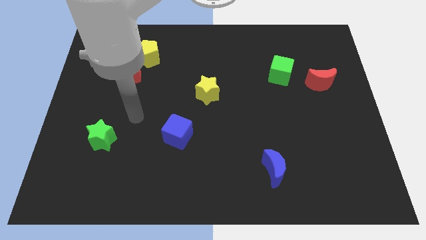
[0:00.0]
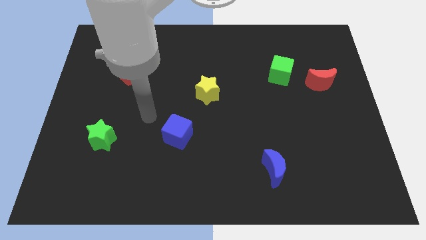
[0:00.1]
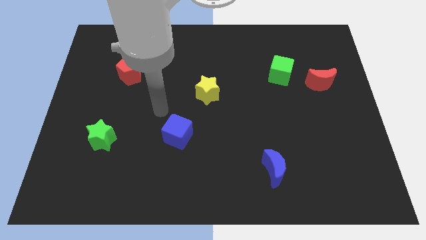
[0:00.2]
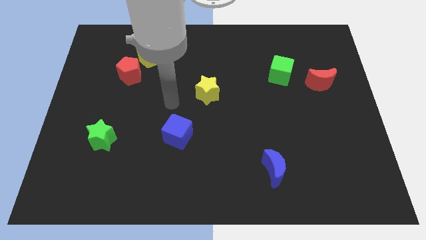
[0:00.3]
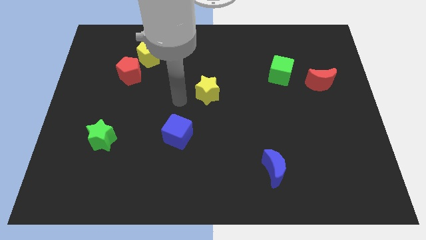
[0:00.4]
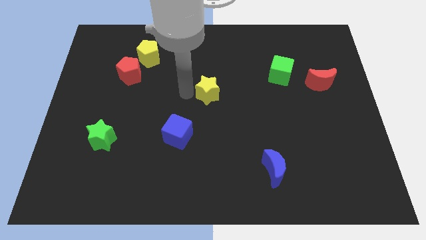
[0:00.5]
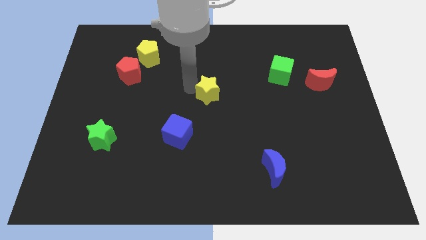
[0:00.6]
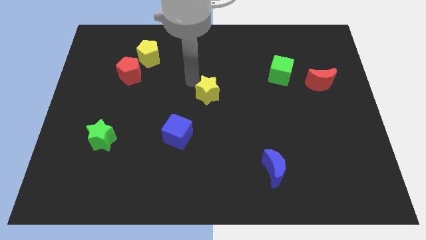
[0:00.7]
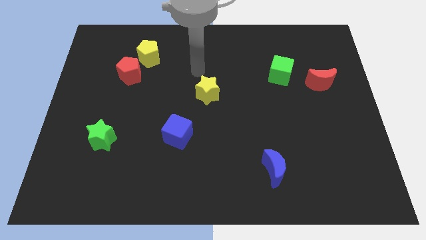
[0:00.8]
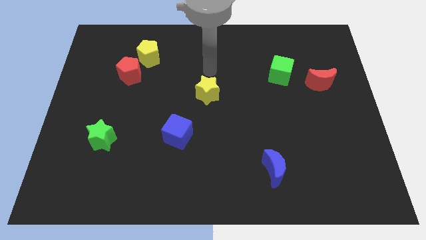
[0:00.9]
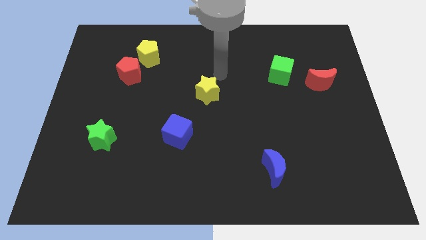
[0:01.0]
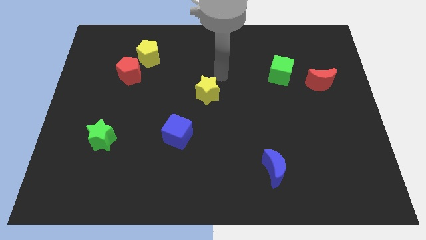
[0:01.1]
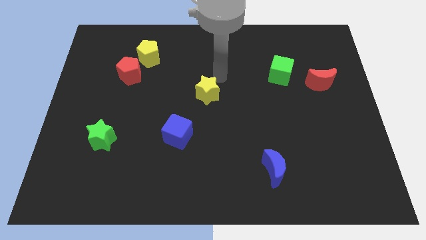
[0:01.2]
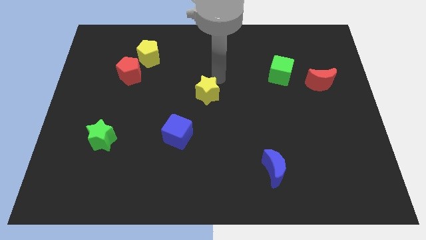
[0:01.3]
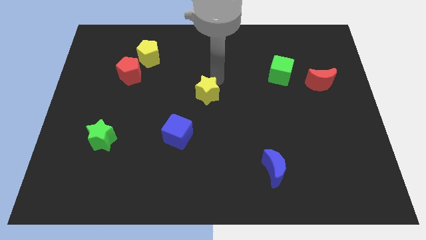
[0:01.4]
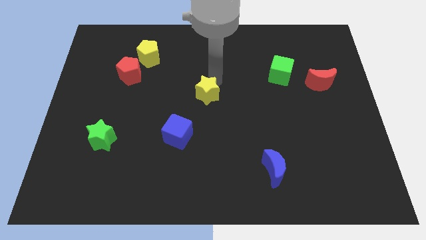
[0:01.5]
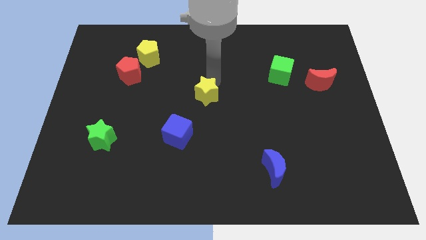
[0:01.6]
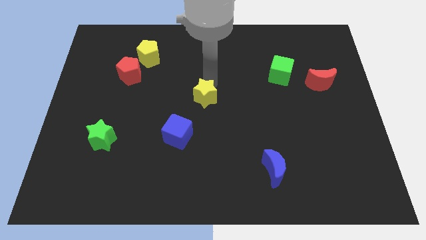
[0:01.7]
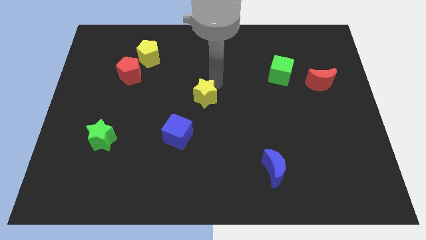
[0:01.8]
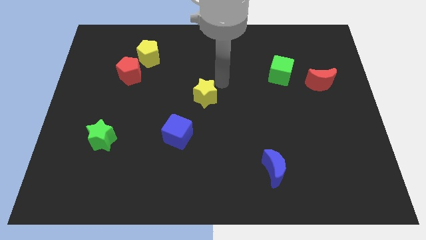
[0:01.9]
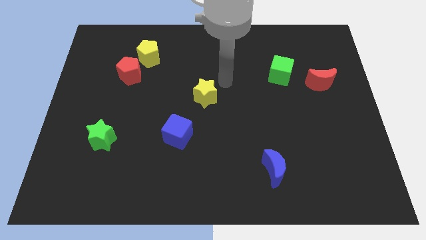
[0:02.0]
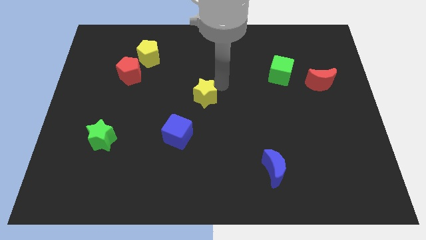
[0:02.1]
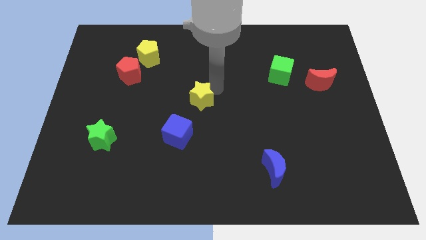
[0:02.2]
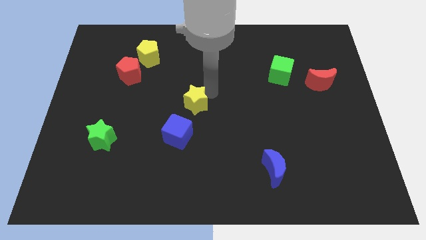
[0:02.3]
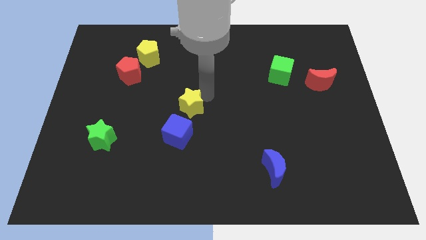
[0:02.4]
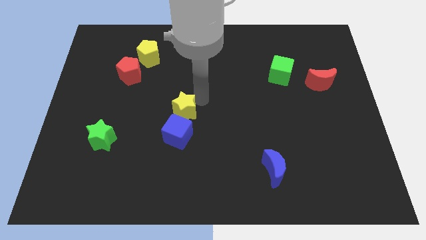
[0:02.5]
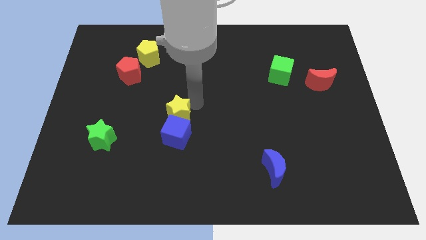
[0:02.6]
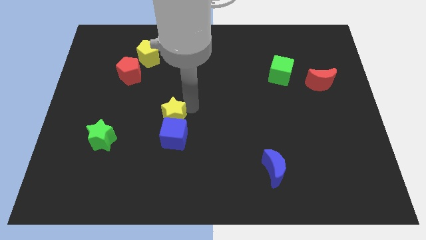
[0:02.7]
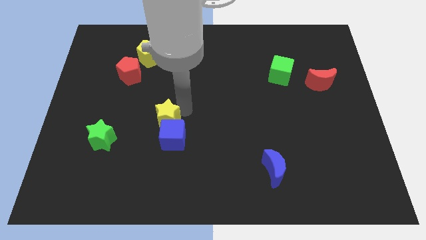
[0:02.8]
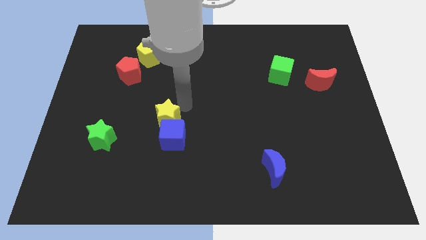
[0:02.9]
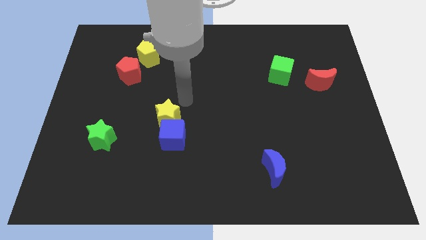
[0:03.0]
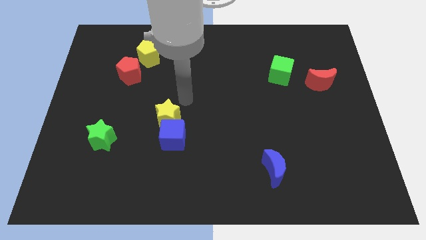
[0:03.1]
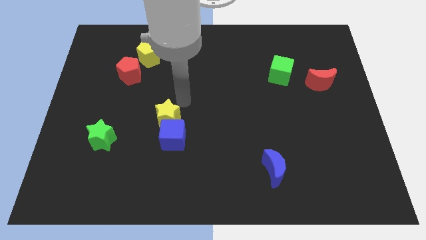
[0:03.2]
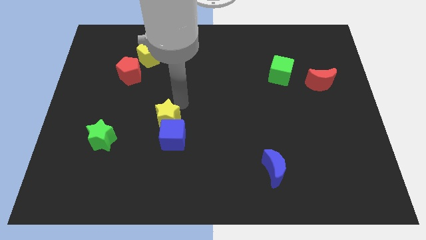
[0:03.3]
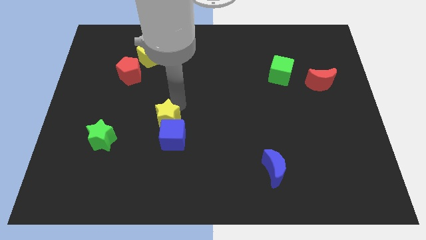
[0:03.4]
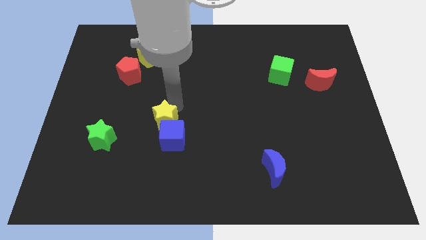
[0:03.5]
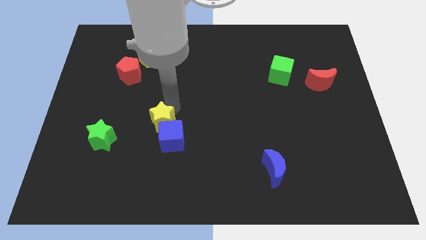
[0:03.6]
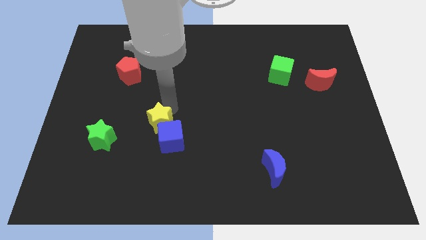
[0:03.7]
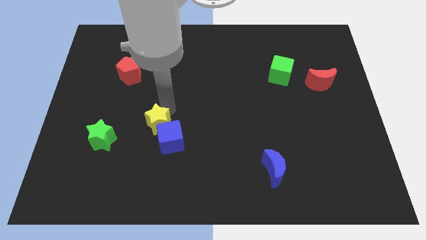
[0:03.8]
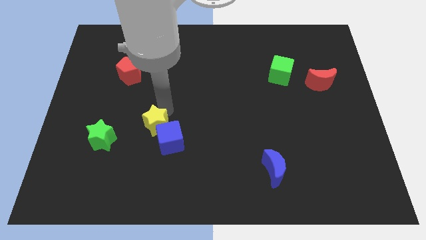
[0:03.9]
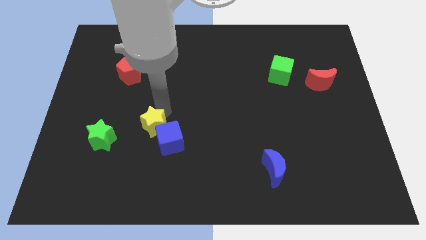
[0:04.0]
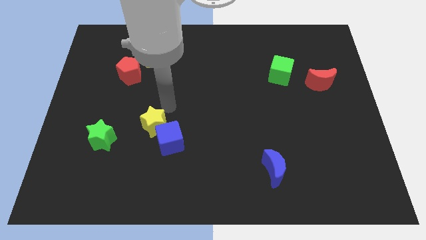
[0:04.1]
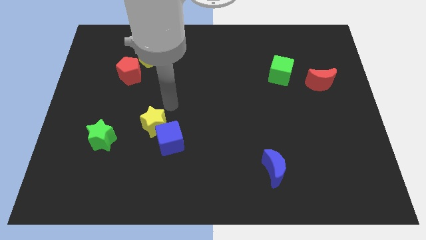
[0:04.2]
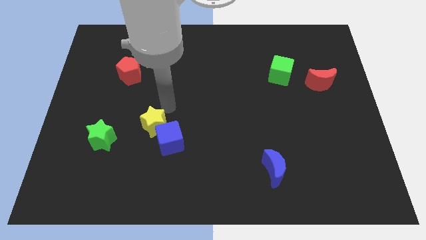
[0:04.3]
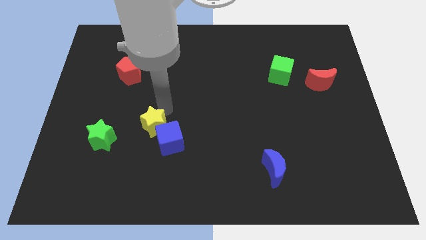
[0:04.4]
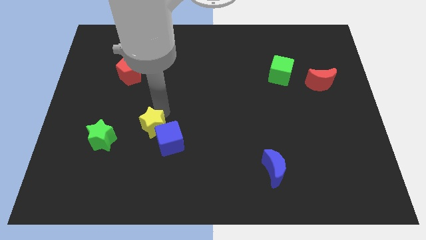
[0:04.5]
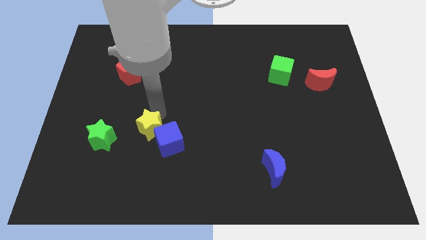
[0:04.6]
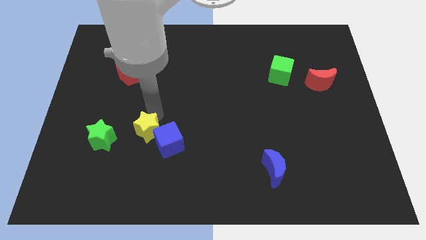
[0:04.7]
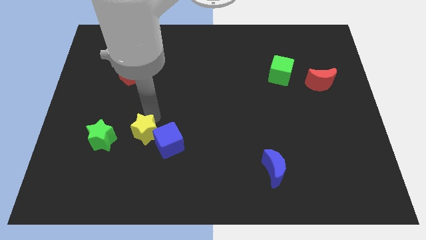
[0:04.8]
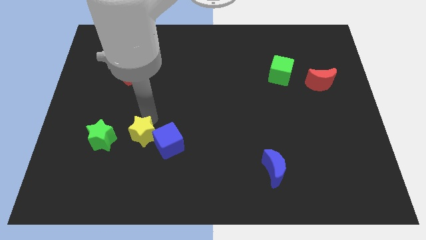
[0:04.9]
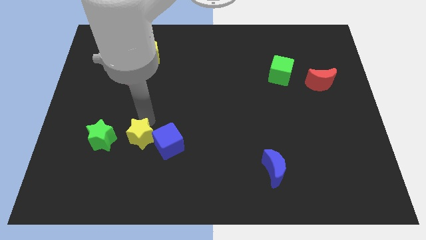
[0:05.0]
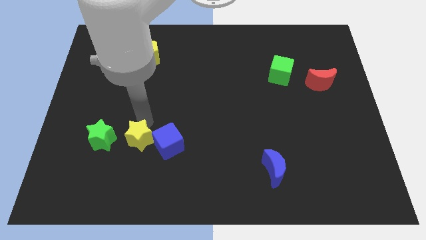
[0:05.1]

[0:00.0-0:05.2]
slide the yellow star diagonally down and left

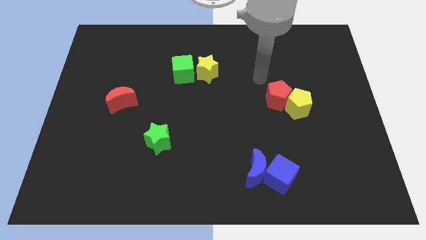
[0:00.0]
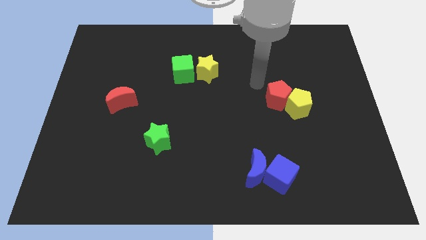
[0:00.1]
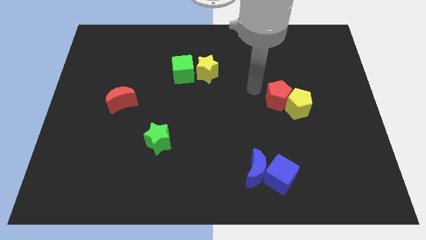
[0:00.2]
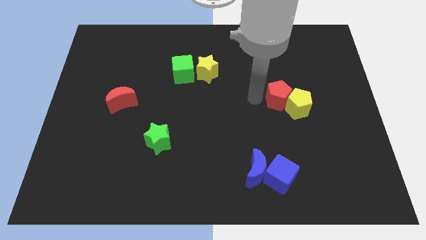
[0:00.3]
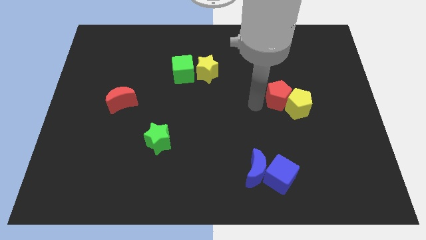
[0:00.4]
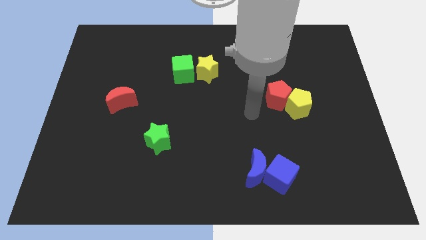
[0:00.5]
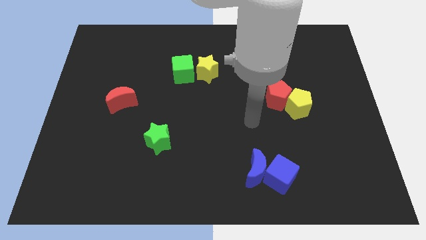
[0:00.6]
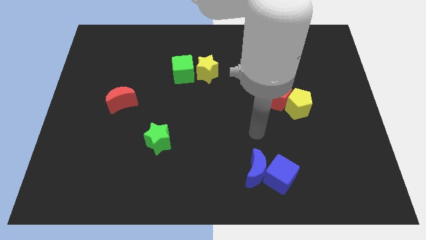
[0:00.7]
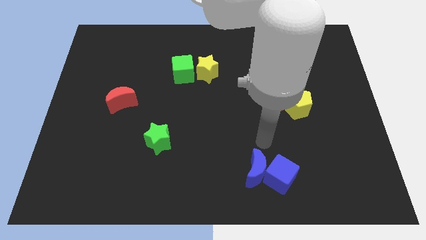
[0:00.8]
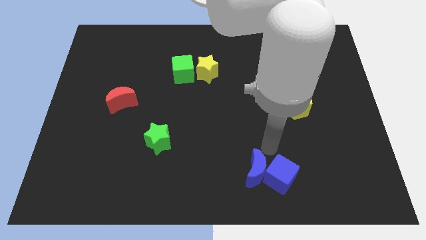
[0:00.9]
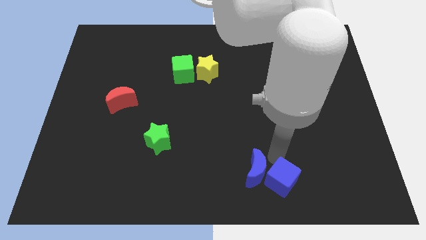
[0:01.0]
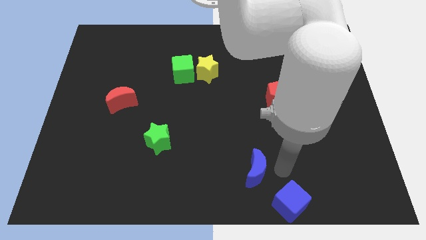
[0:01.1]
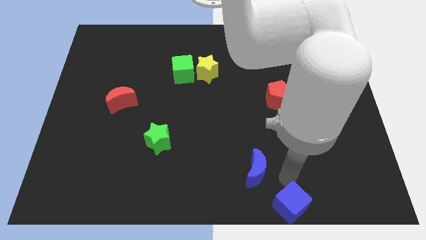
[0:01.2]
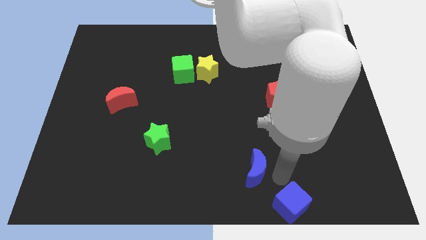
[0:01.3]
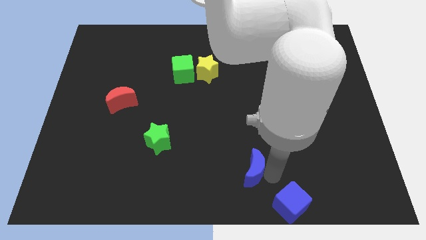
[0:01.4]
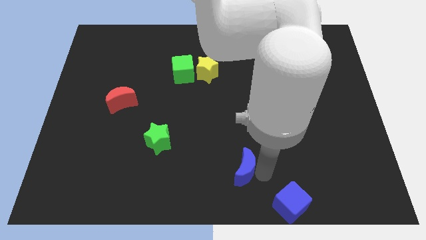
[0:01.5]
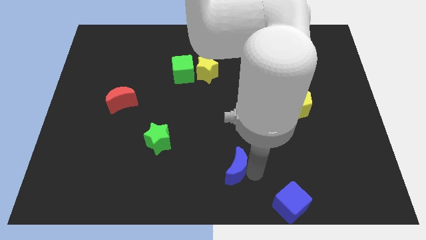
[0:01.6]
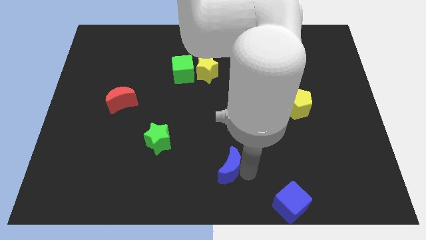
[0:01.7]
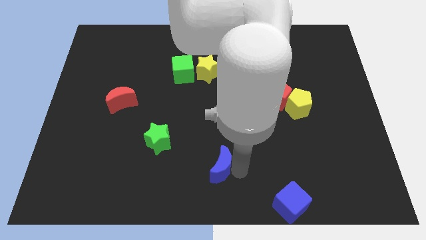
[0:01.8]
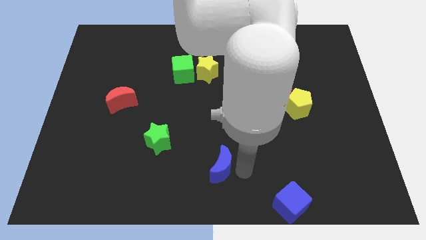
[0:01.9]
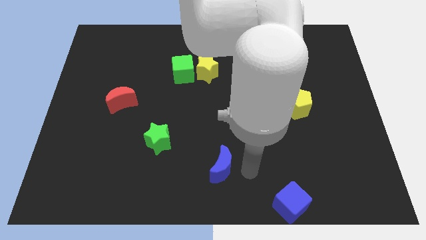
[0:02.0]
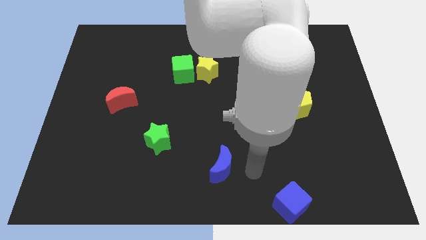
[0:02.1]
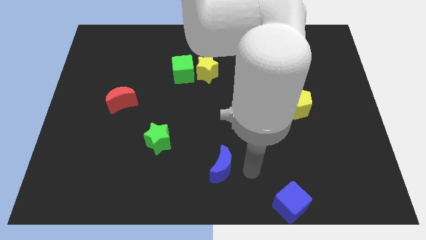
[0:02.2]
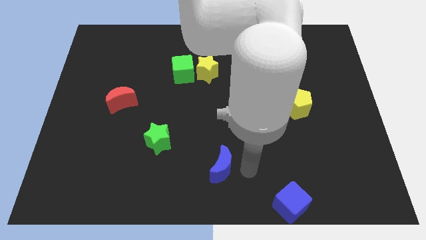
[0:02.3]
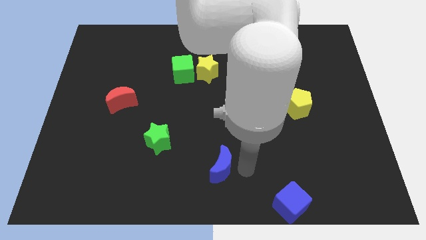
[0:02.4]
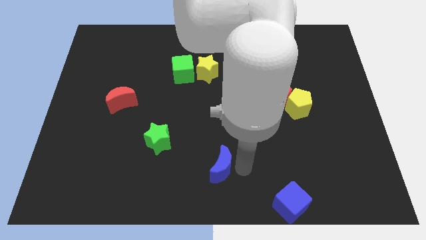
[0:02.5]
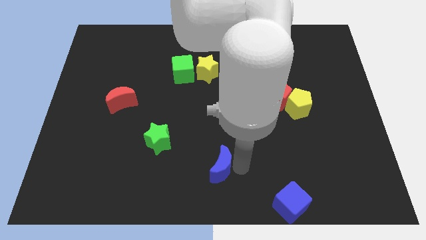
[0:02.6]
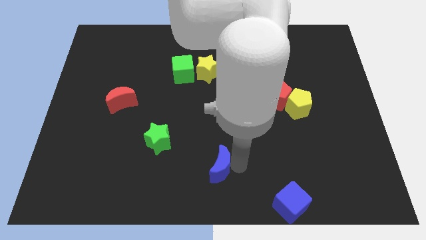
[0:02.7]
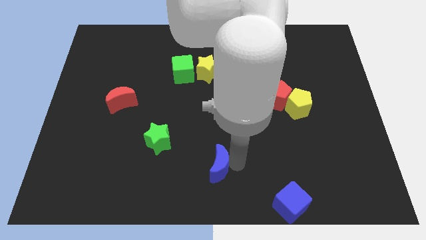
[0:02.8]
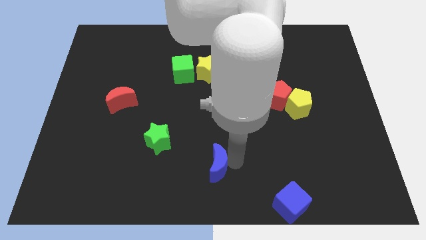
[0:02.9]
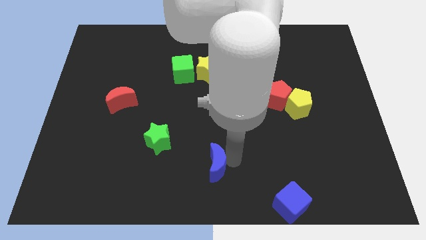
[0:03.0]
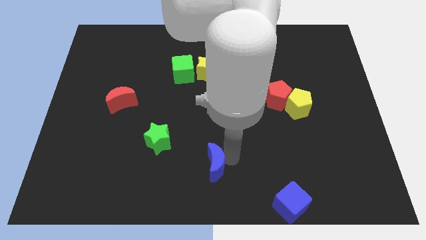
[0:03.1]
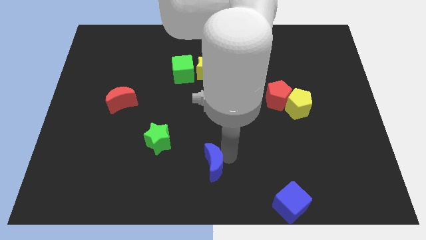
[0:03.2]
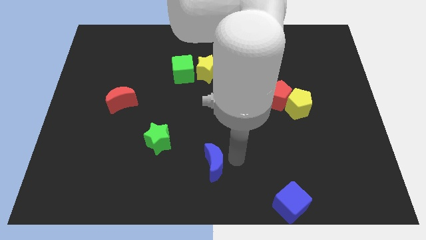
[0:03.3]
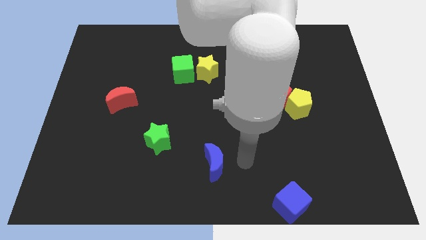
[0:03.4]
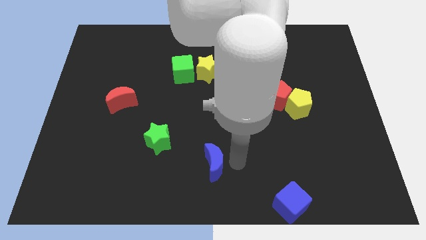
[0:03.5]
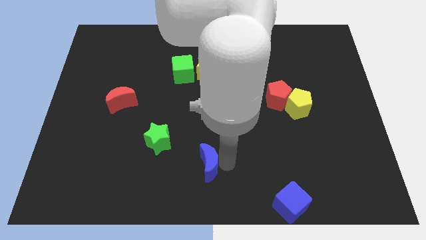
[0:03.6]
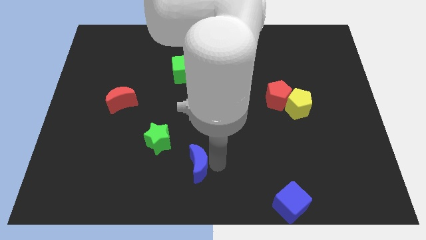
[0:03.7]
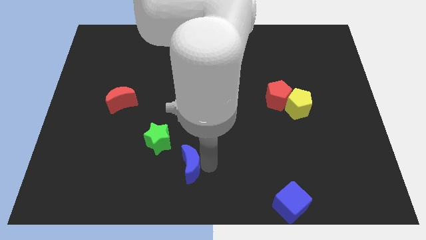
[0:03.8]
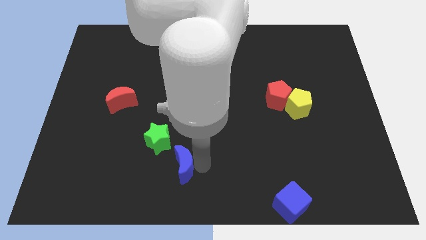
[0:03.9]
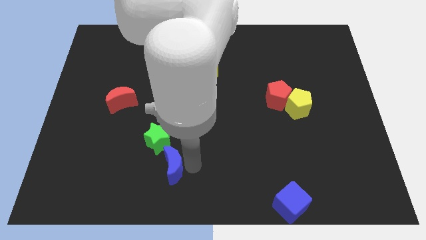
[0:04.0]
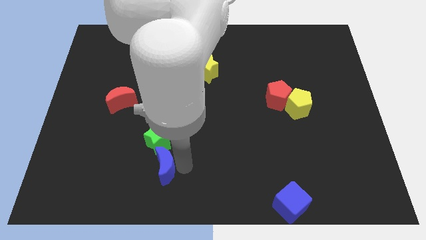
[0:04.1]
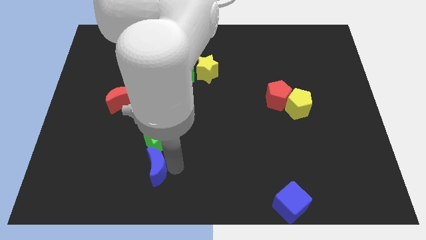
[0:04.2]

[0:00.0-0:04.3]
slide the blue moon to the left
